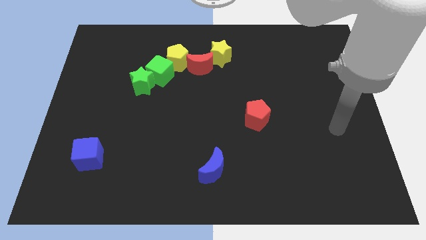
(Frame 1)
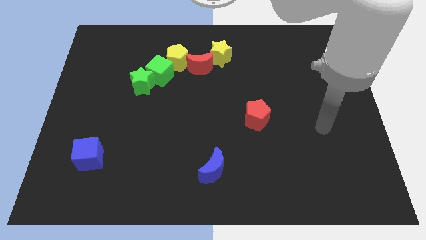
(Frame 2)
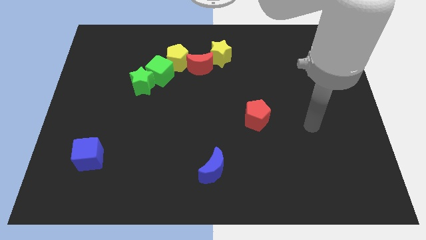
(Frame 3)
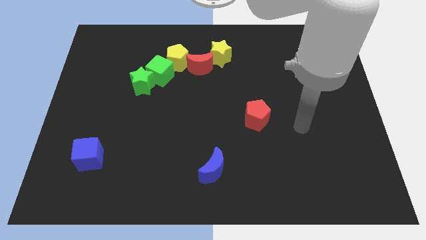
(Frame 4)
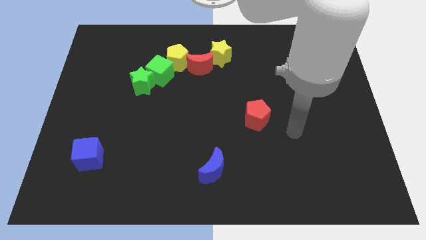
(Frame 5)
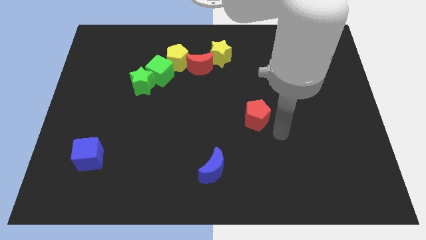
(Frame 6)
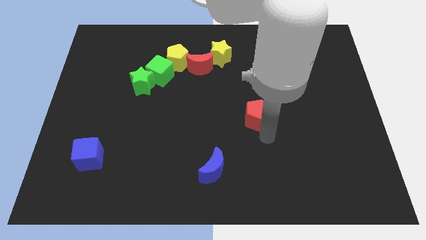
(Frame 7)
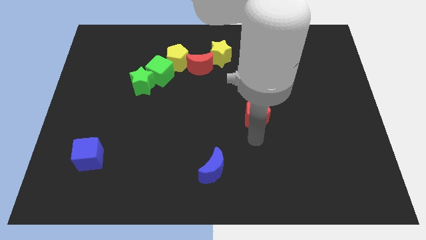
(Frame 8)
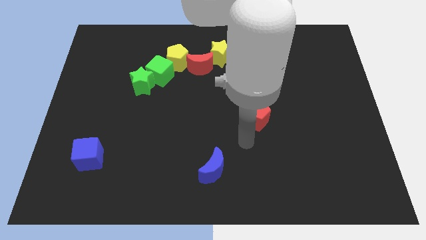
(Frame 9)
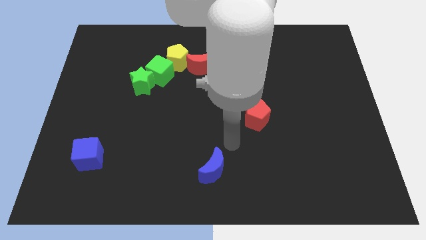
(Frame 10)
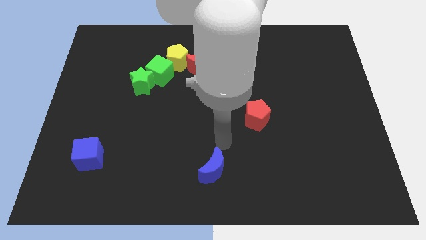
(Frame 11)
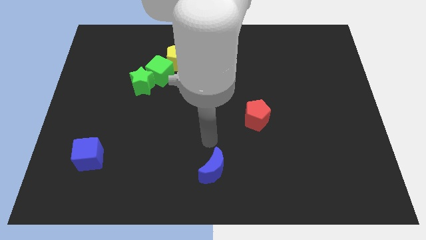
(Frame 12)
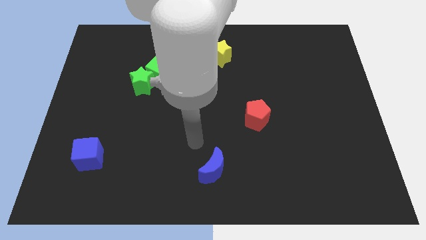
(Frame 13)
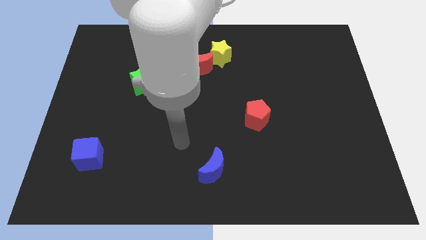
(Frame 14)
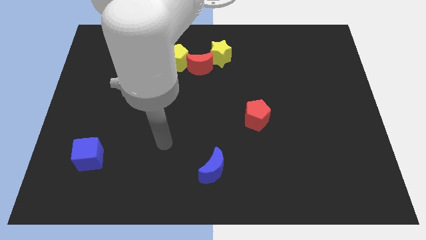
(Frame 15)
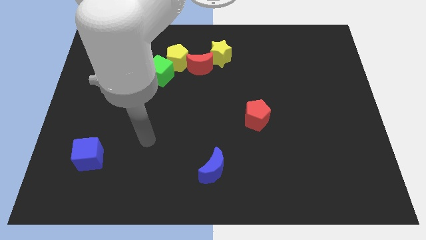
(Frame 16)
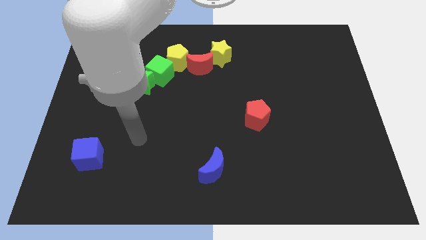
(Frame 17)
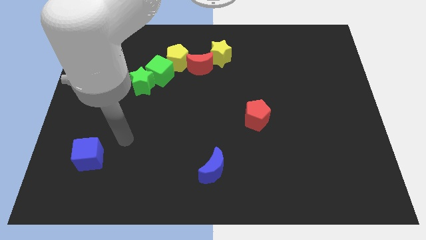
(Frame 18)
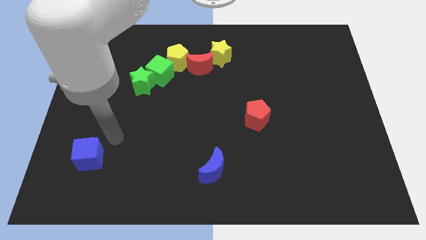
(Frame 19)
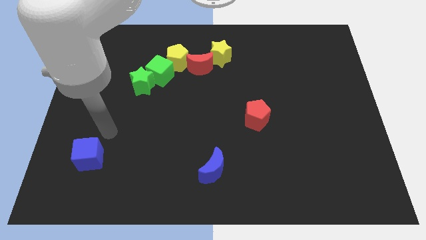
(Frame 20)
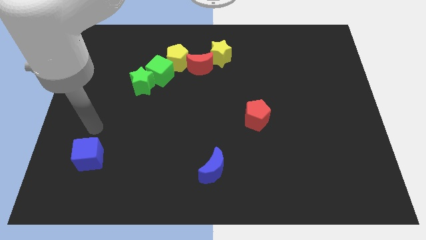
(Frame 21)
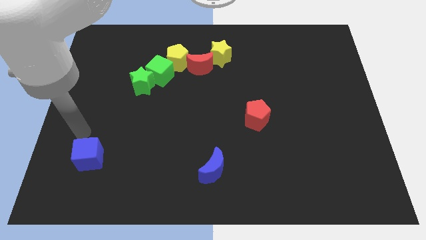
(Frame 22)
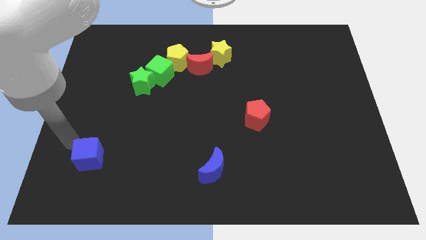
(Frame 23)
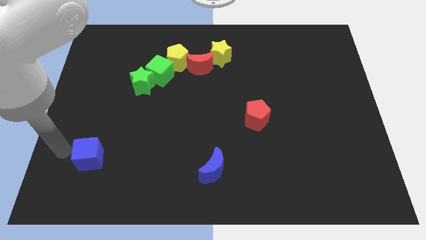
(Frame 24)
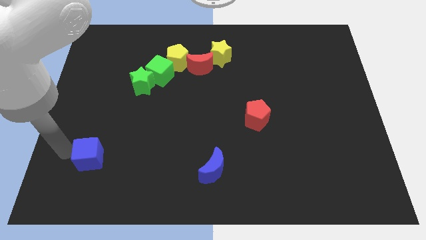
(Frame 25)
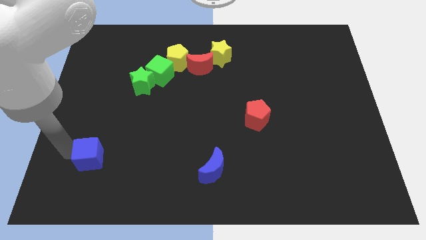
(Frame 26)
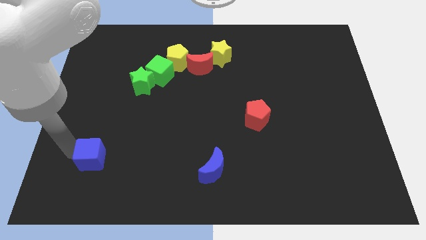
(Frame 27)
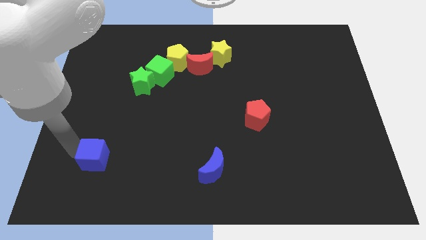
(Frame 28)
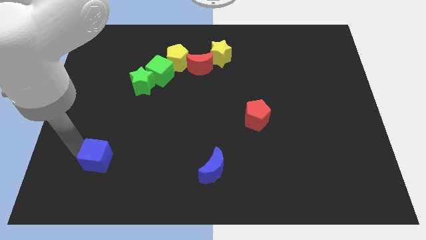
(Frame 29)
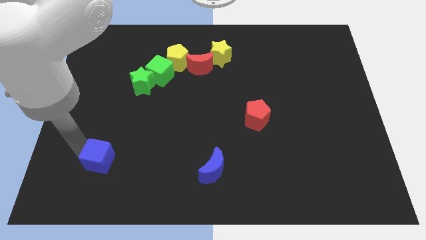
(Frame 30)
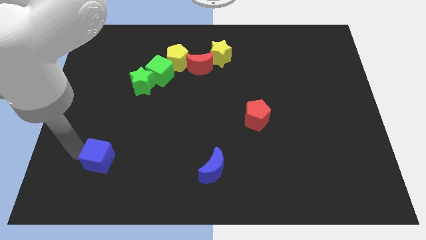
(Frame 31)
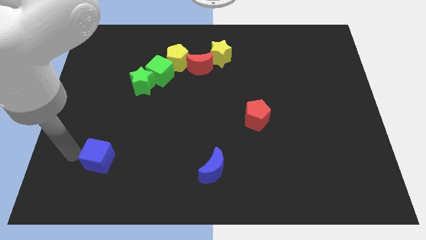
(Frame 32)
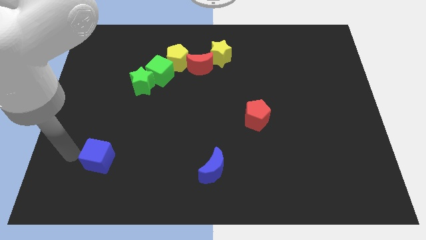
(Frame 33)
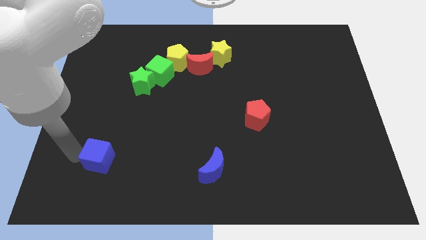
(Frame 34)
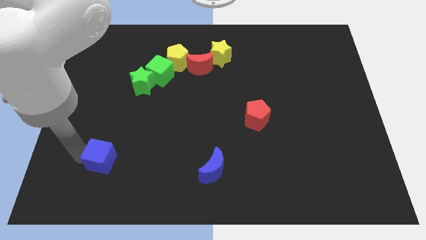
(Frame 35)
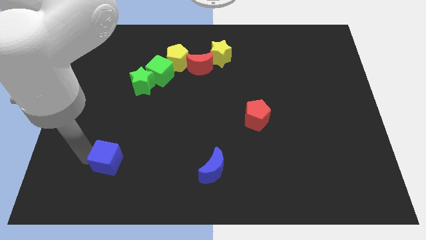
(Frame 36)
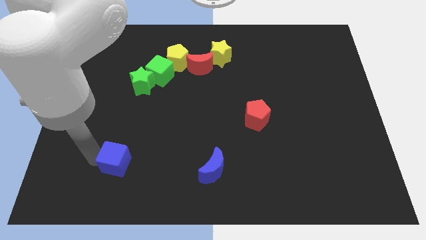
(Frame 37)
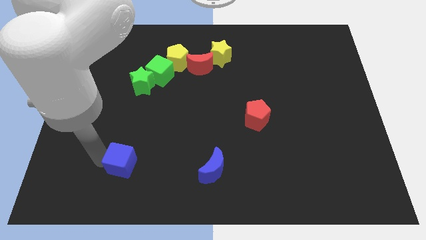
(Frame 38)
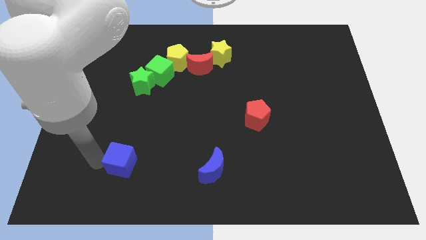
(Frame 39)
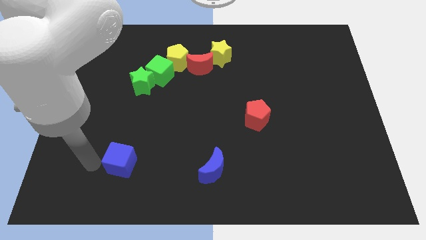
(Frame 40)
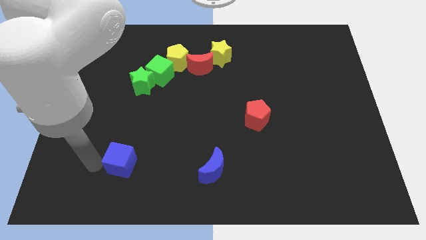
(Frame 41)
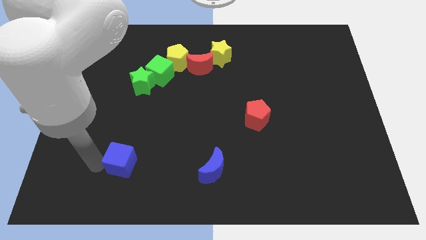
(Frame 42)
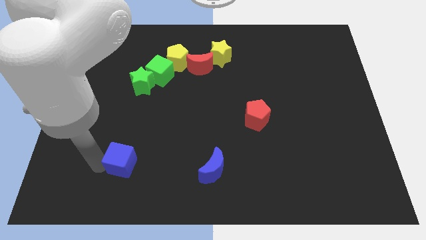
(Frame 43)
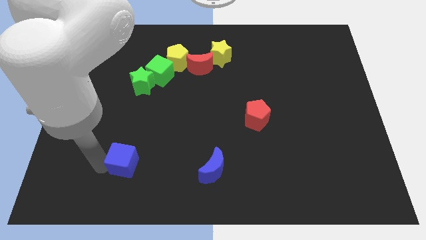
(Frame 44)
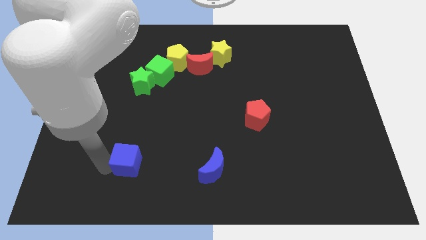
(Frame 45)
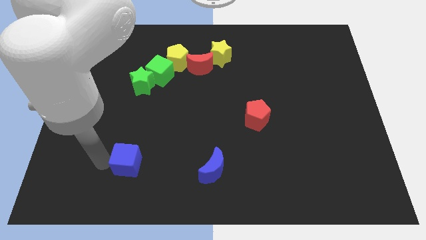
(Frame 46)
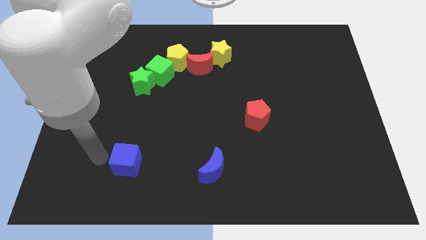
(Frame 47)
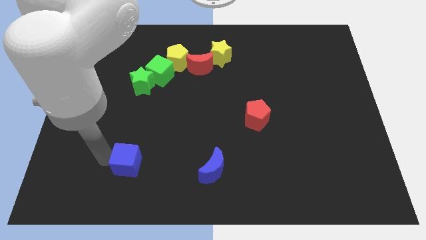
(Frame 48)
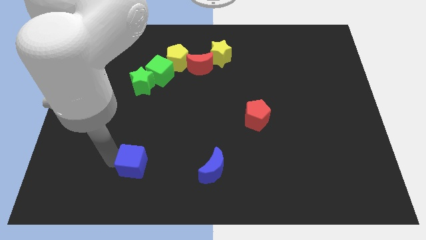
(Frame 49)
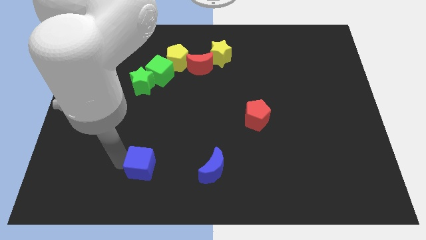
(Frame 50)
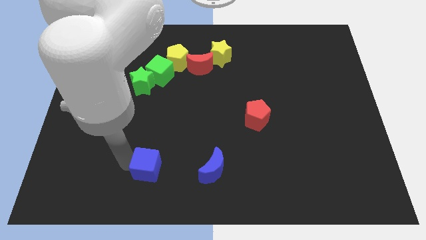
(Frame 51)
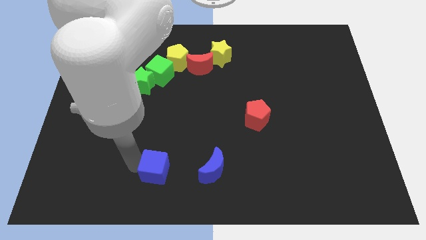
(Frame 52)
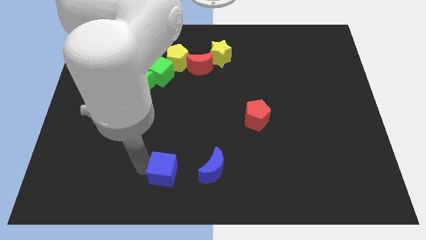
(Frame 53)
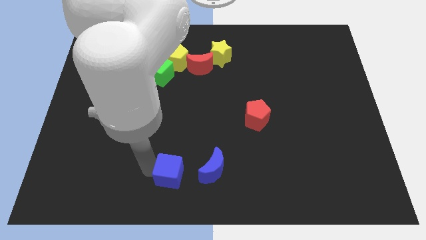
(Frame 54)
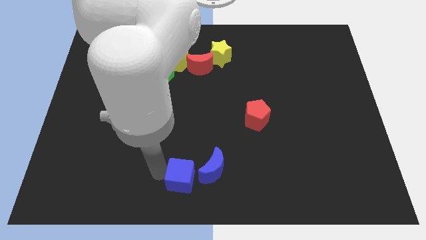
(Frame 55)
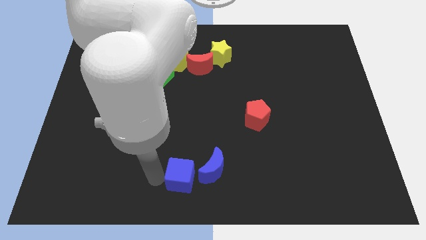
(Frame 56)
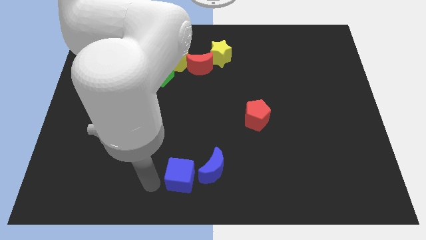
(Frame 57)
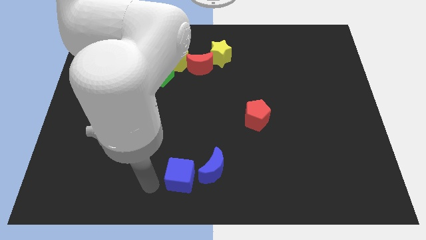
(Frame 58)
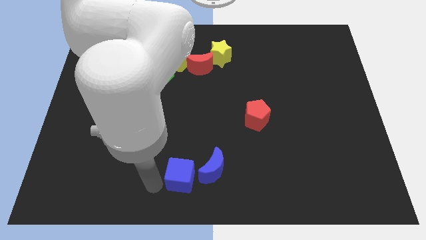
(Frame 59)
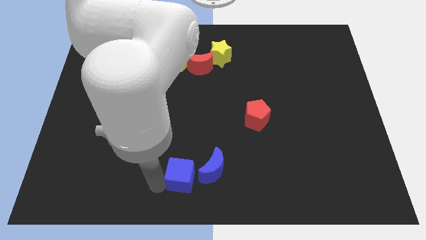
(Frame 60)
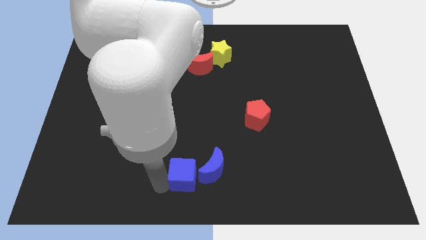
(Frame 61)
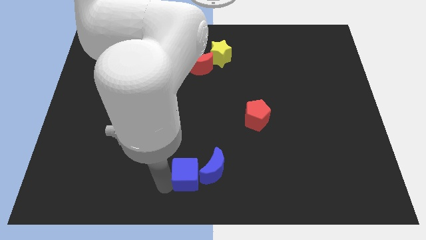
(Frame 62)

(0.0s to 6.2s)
put the blue cube close to the blue moon

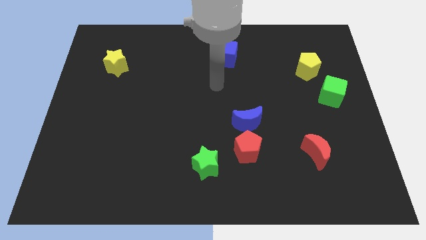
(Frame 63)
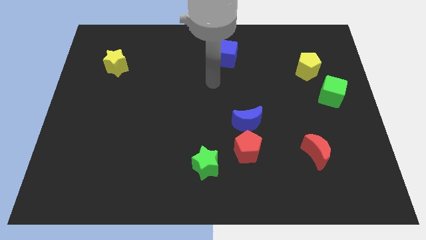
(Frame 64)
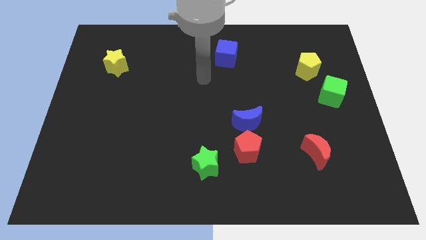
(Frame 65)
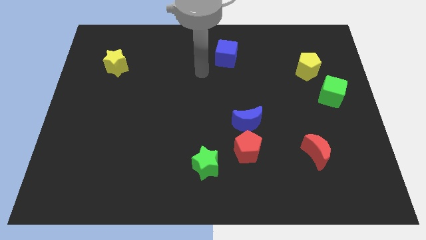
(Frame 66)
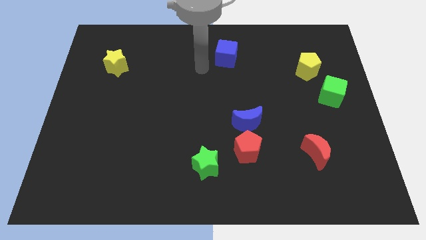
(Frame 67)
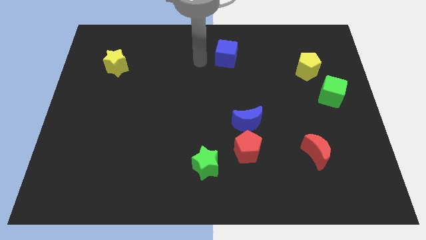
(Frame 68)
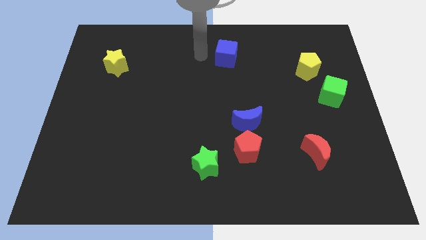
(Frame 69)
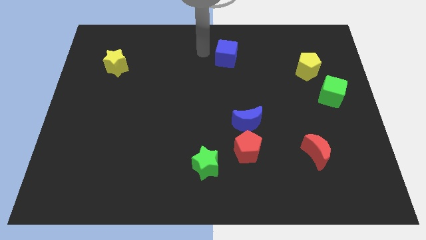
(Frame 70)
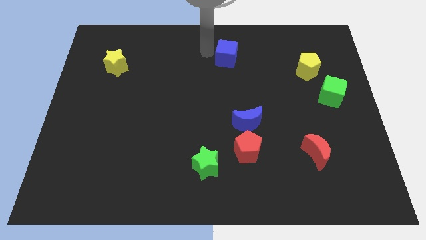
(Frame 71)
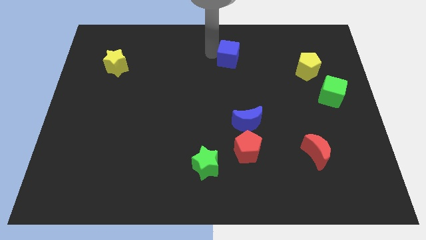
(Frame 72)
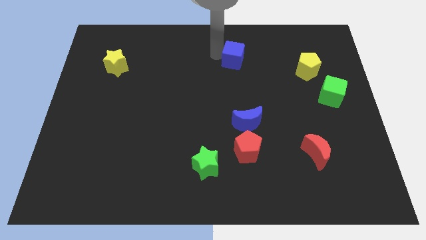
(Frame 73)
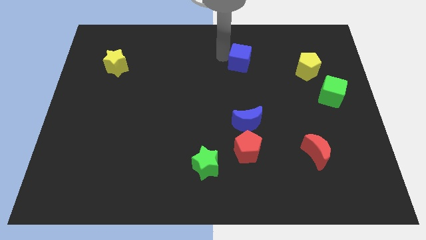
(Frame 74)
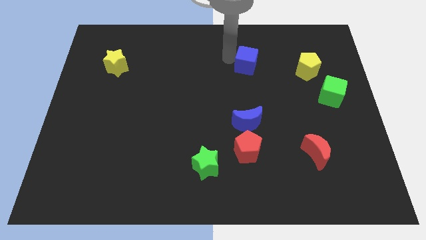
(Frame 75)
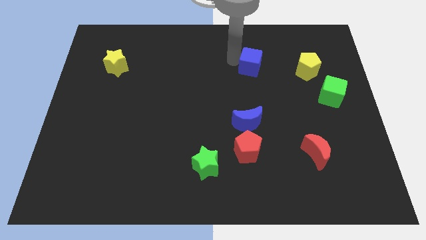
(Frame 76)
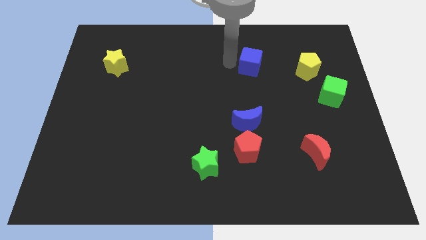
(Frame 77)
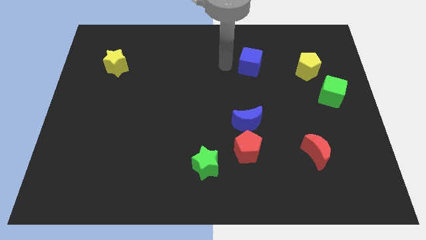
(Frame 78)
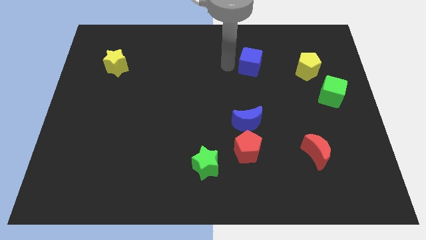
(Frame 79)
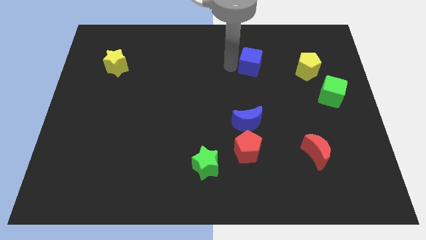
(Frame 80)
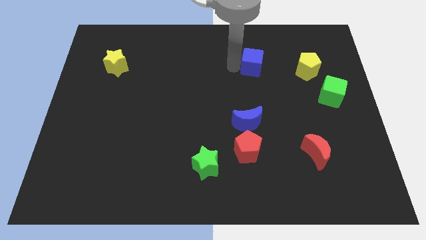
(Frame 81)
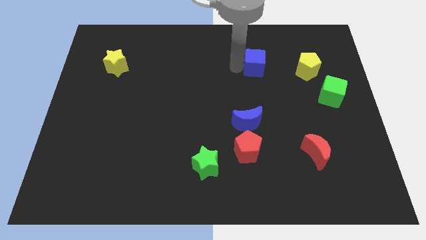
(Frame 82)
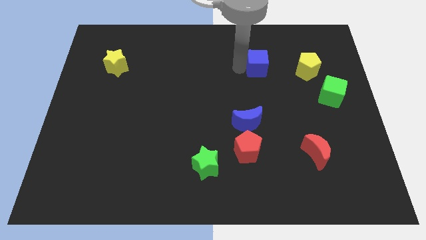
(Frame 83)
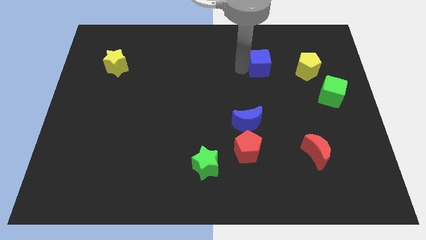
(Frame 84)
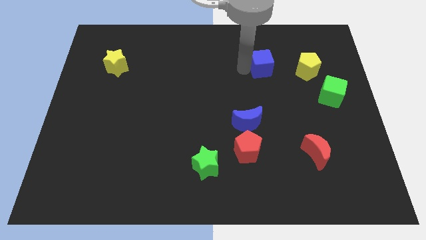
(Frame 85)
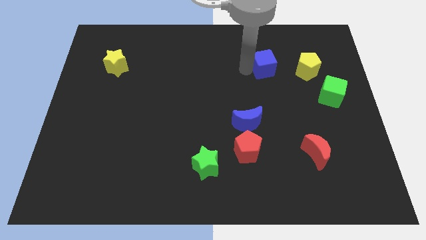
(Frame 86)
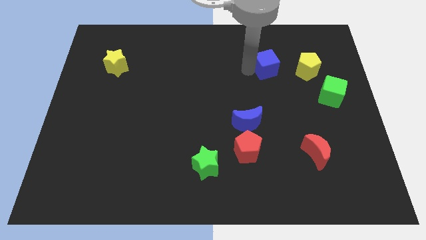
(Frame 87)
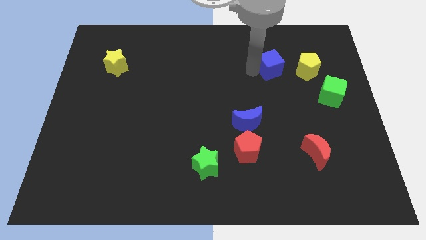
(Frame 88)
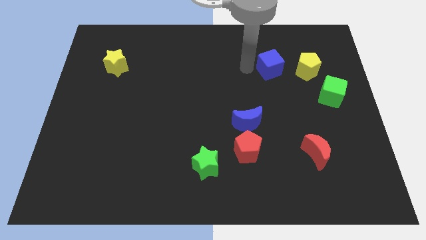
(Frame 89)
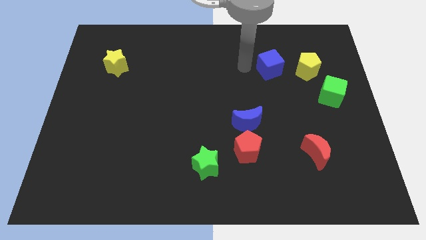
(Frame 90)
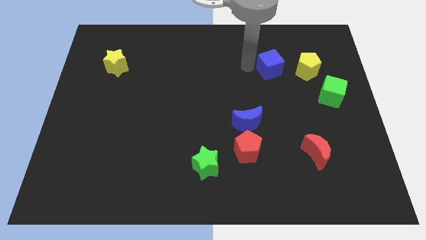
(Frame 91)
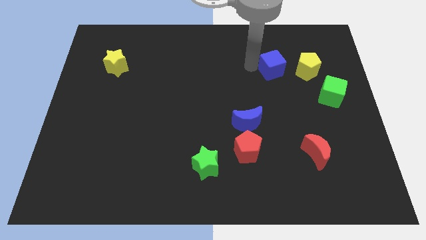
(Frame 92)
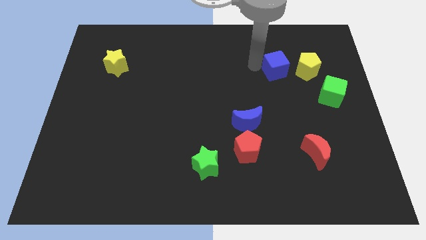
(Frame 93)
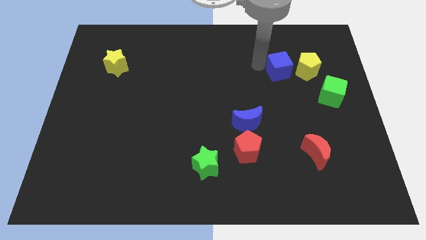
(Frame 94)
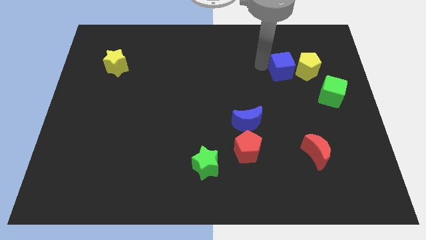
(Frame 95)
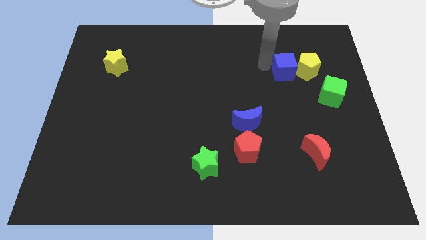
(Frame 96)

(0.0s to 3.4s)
move the blue cube to the yellow pentagon
